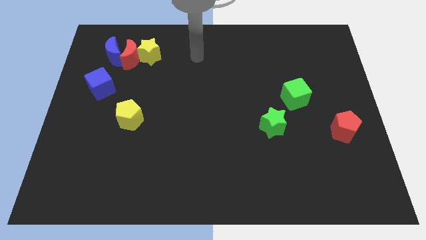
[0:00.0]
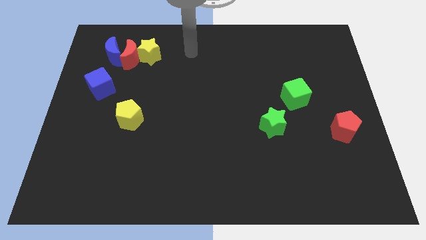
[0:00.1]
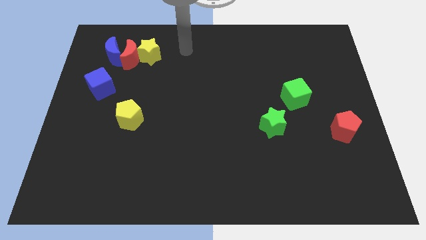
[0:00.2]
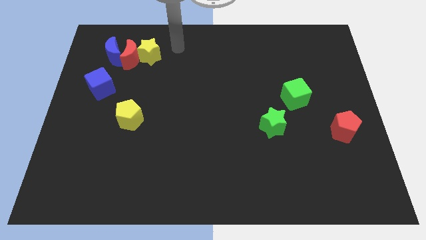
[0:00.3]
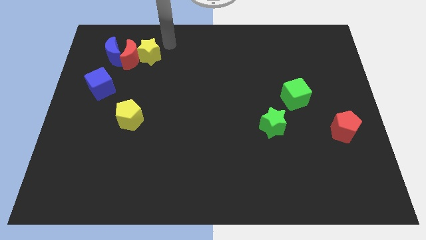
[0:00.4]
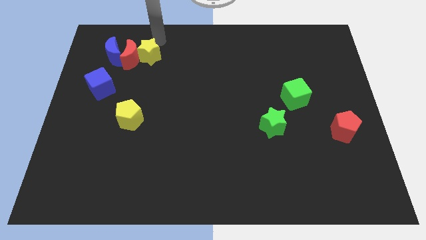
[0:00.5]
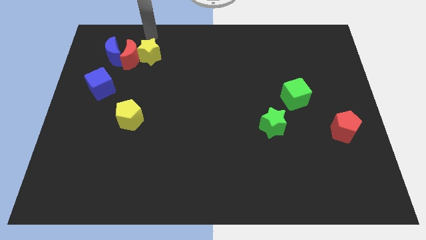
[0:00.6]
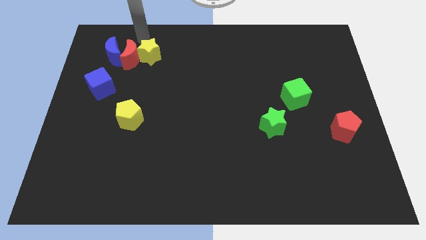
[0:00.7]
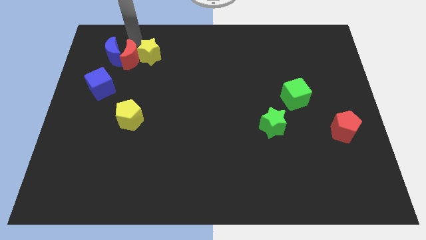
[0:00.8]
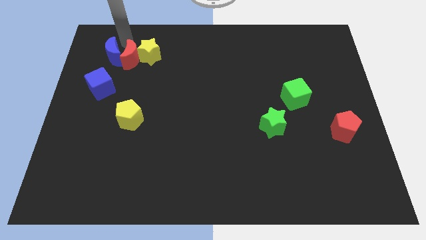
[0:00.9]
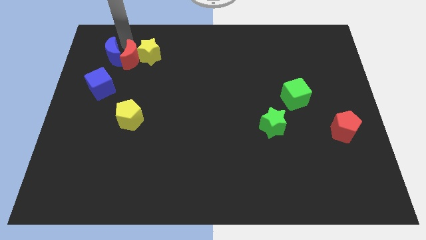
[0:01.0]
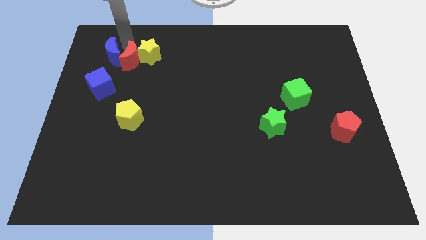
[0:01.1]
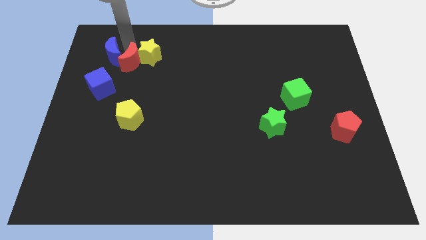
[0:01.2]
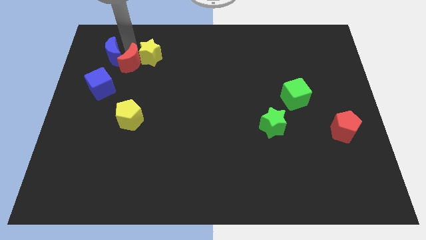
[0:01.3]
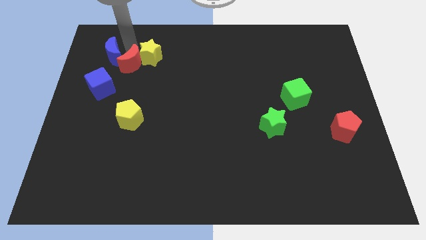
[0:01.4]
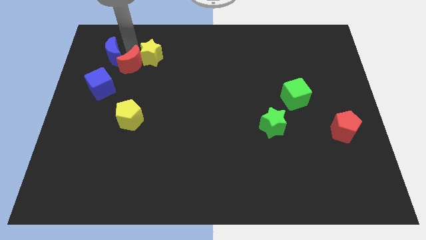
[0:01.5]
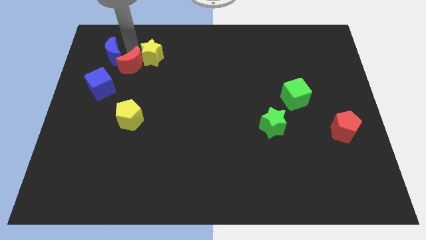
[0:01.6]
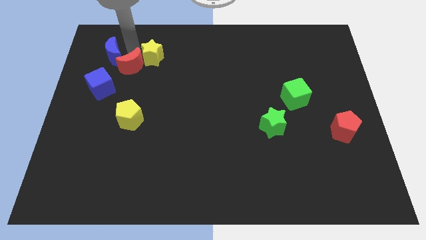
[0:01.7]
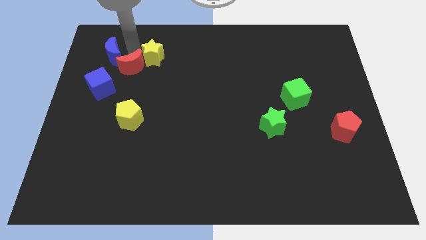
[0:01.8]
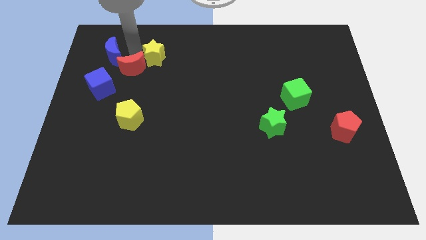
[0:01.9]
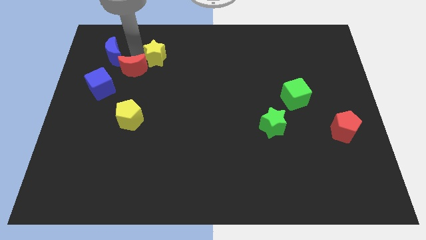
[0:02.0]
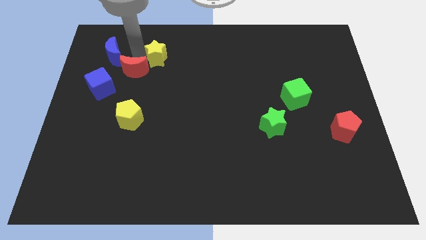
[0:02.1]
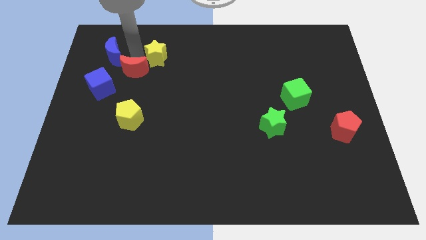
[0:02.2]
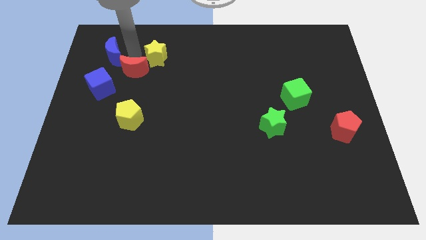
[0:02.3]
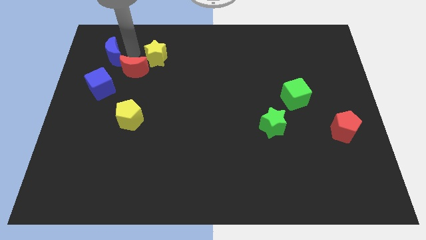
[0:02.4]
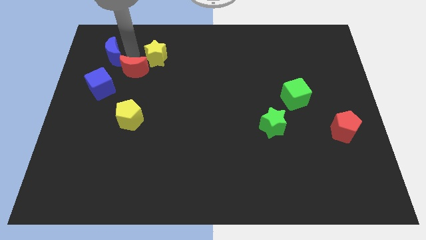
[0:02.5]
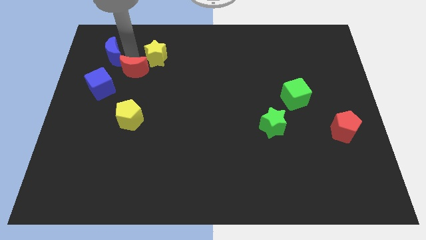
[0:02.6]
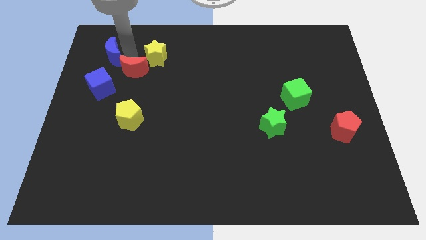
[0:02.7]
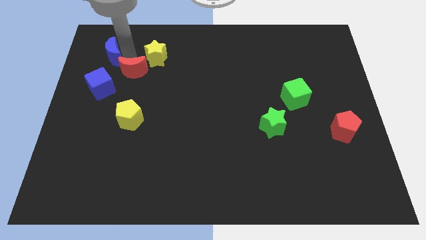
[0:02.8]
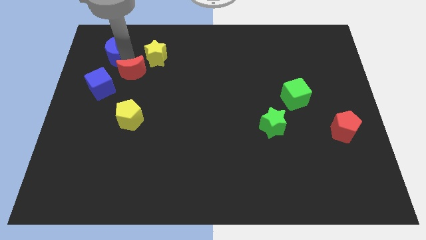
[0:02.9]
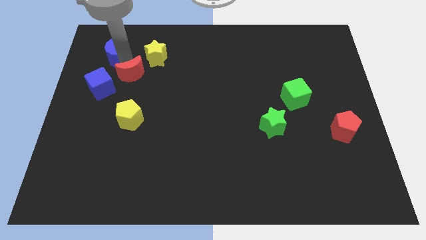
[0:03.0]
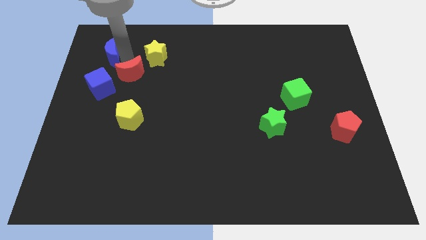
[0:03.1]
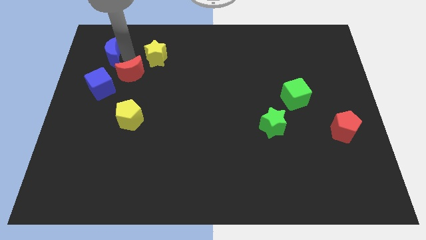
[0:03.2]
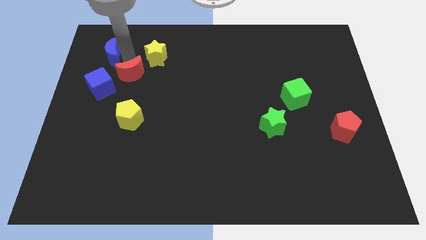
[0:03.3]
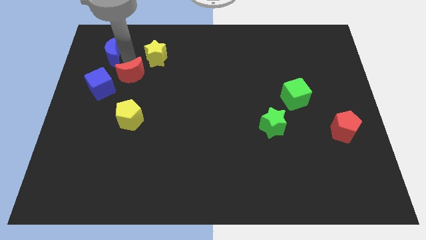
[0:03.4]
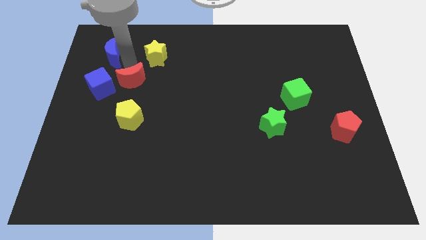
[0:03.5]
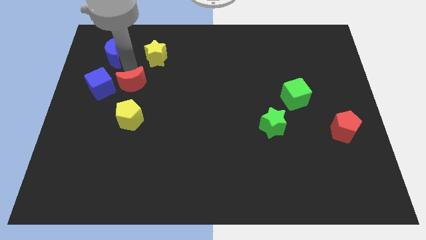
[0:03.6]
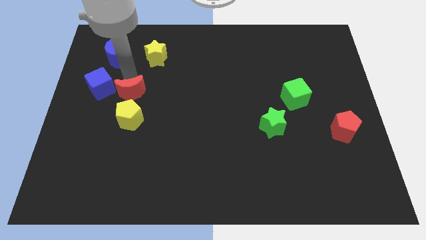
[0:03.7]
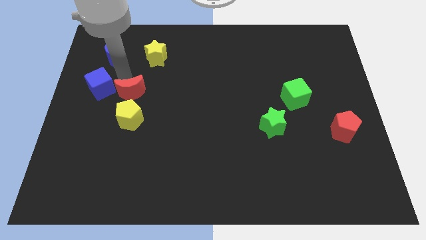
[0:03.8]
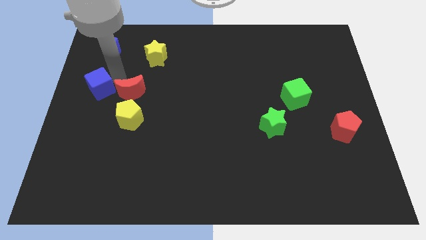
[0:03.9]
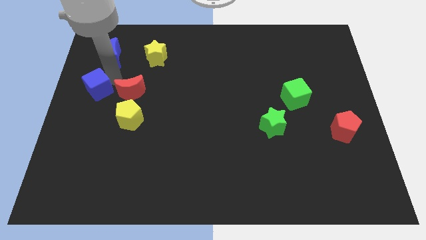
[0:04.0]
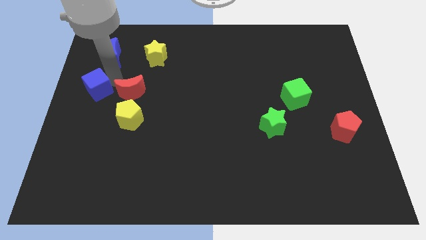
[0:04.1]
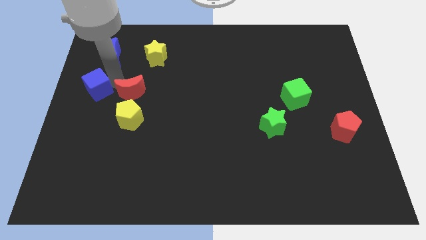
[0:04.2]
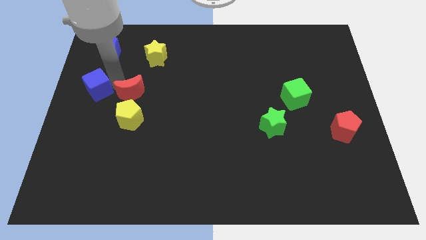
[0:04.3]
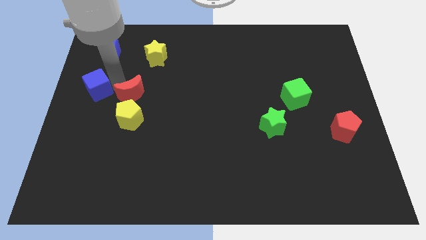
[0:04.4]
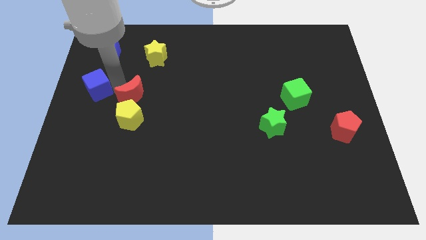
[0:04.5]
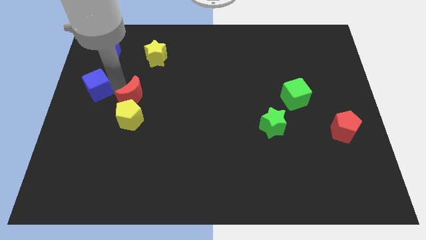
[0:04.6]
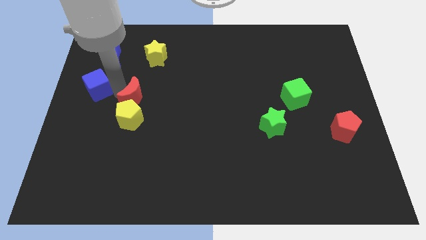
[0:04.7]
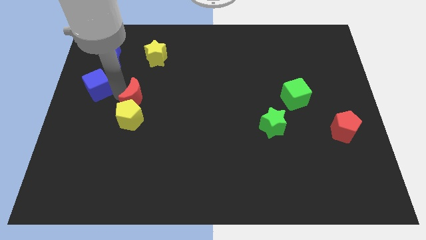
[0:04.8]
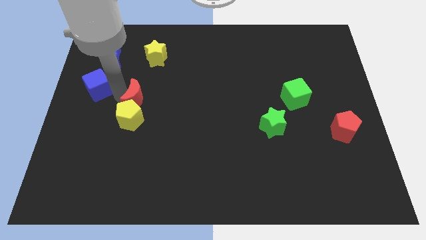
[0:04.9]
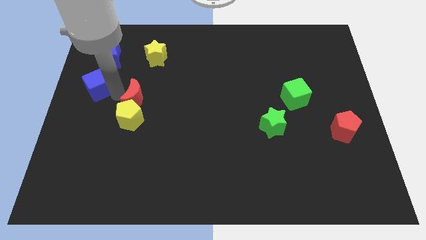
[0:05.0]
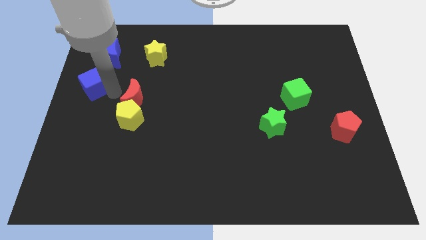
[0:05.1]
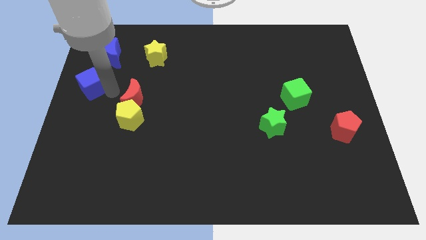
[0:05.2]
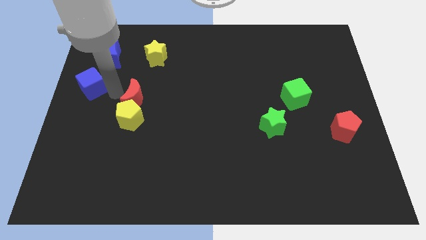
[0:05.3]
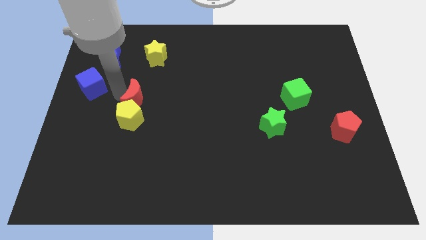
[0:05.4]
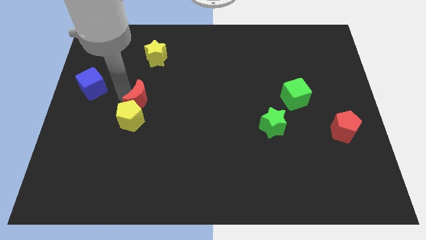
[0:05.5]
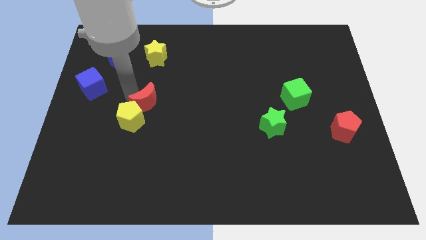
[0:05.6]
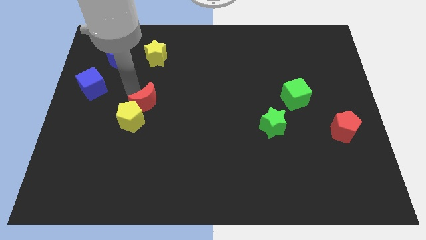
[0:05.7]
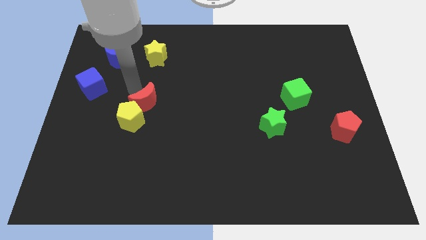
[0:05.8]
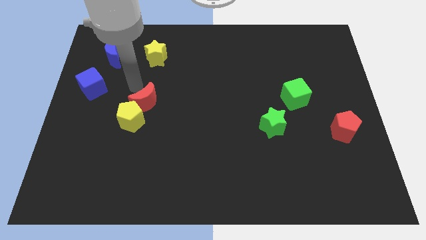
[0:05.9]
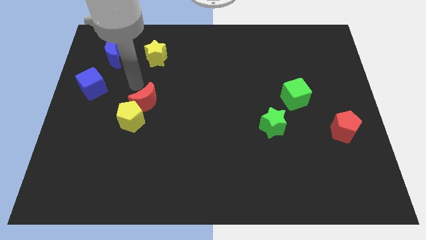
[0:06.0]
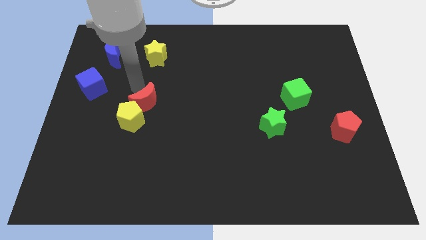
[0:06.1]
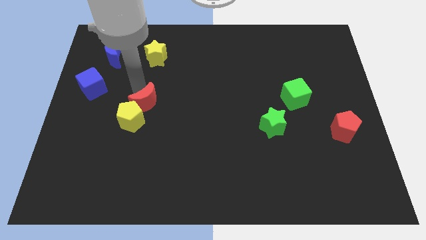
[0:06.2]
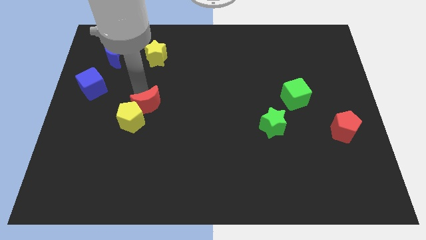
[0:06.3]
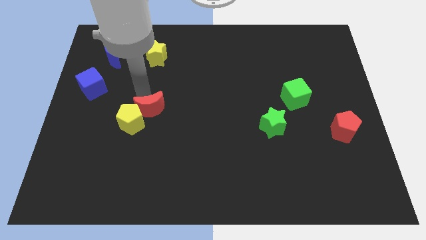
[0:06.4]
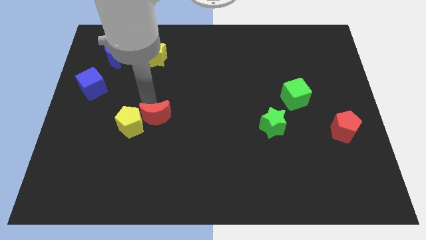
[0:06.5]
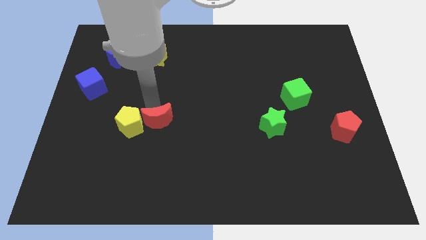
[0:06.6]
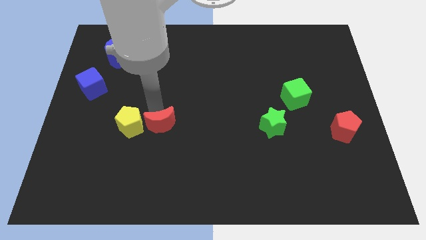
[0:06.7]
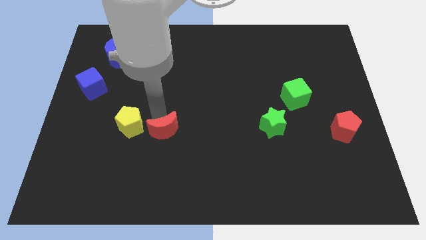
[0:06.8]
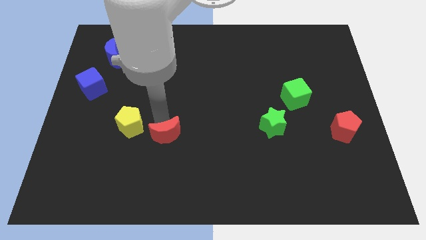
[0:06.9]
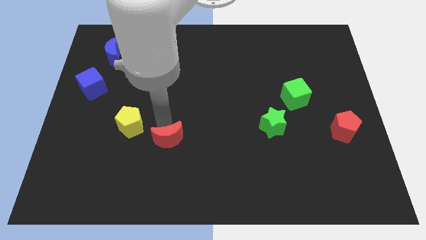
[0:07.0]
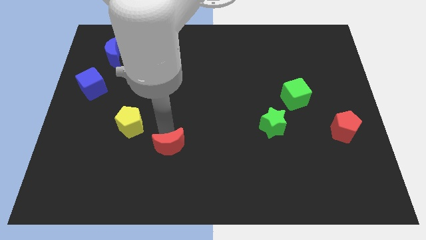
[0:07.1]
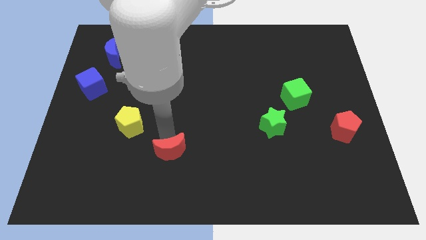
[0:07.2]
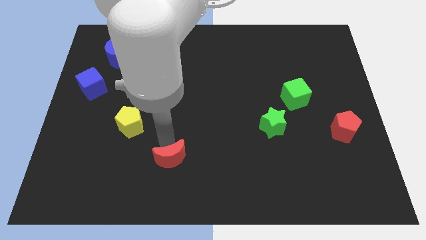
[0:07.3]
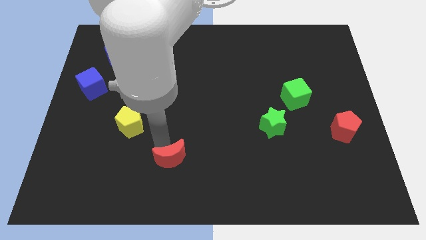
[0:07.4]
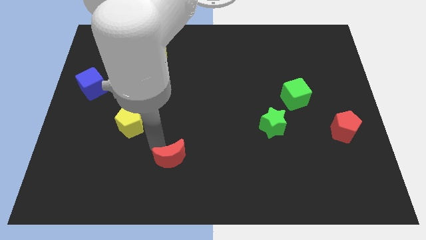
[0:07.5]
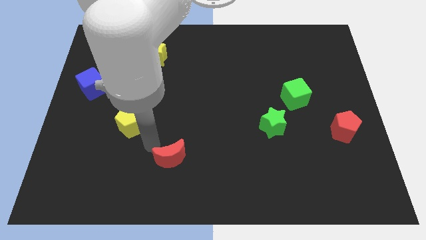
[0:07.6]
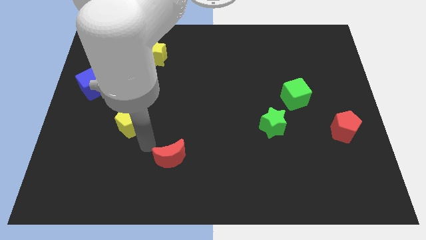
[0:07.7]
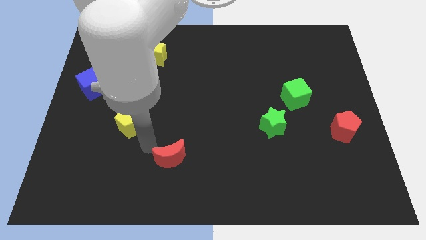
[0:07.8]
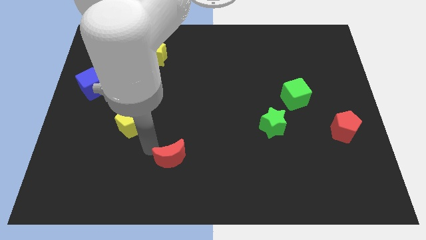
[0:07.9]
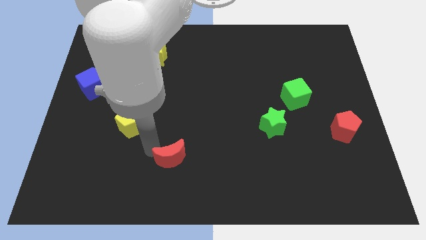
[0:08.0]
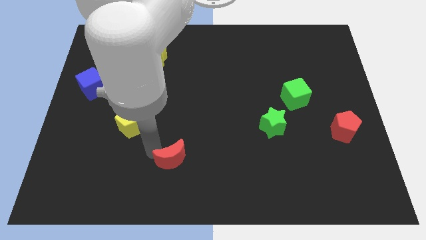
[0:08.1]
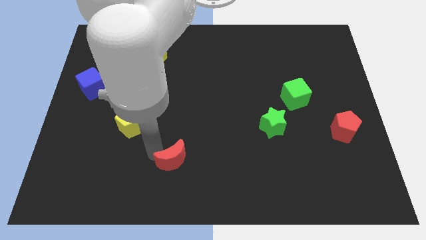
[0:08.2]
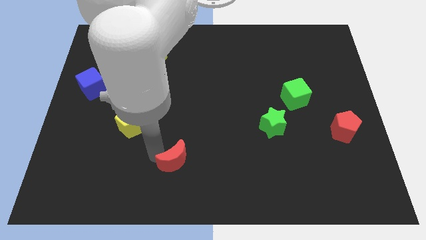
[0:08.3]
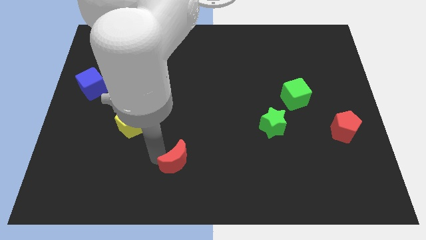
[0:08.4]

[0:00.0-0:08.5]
slide the red moon to the bottom
